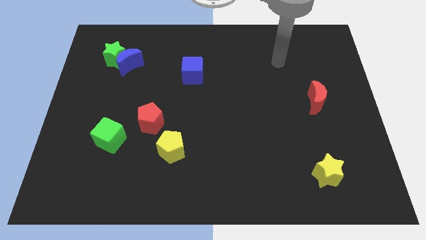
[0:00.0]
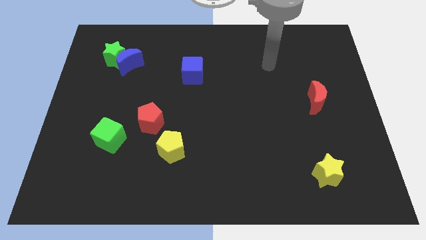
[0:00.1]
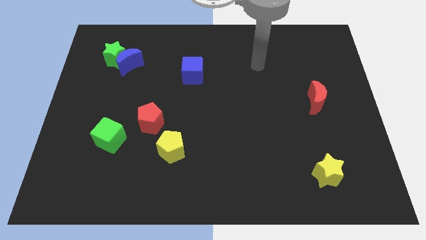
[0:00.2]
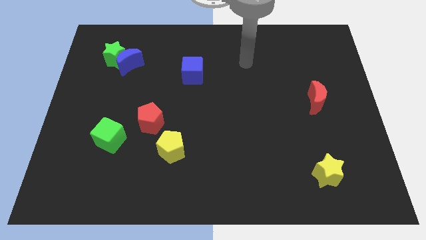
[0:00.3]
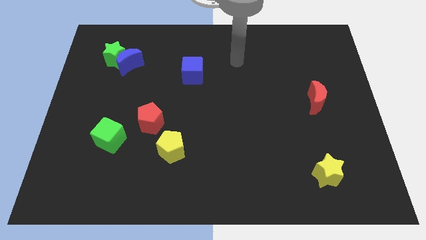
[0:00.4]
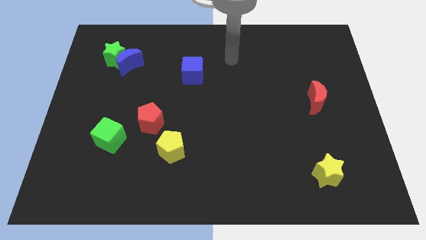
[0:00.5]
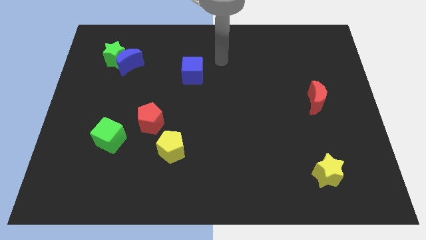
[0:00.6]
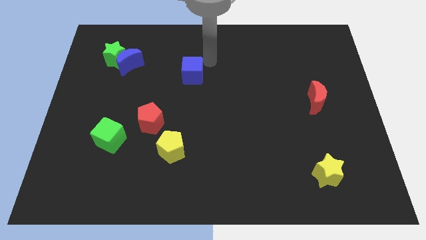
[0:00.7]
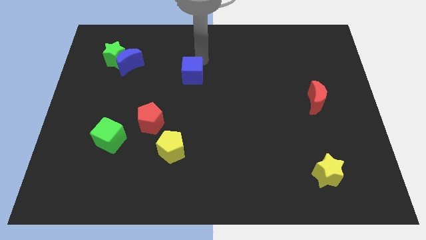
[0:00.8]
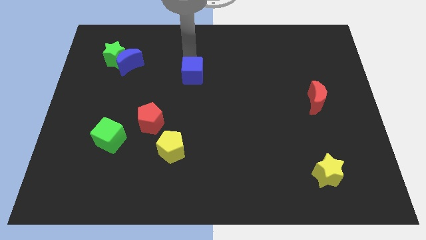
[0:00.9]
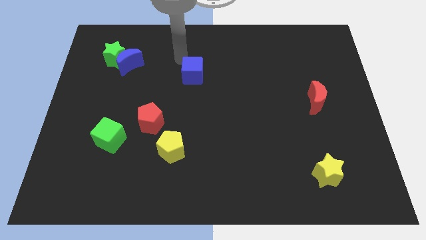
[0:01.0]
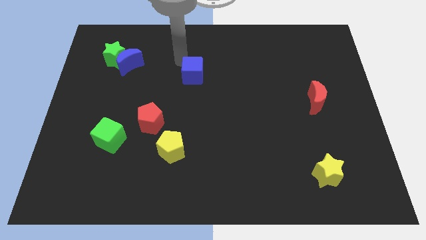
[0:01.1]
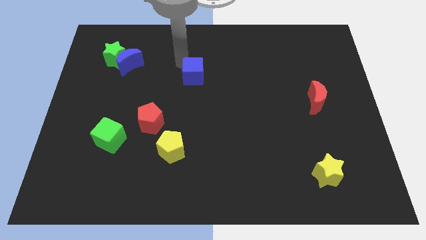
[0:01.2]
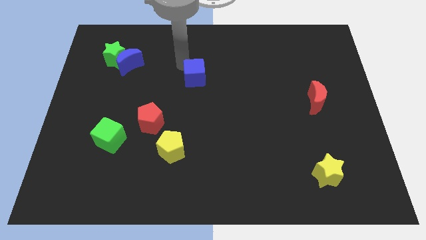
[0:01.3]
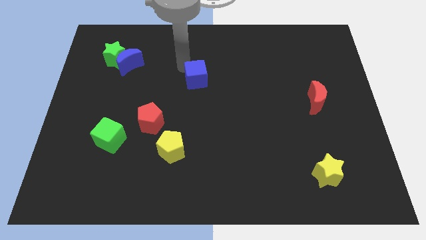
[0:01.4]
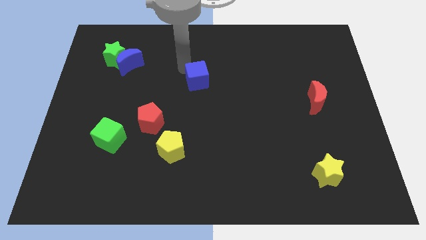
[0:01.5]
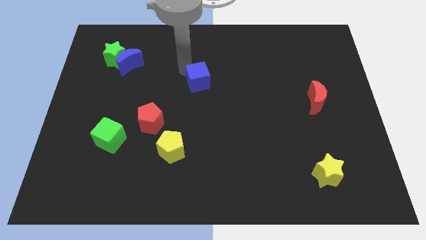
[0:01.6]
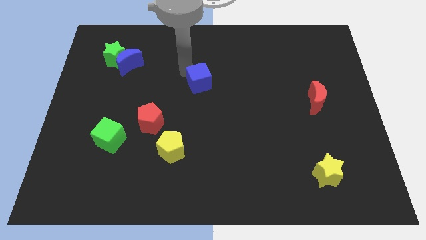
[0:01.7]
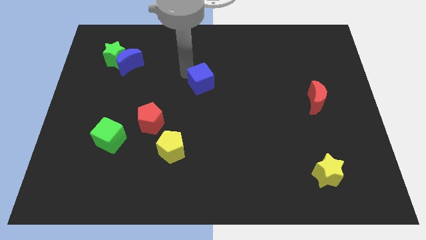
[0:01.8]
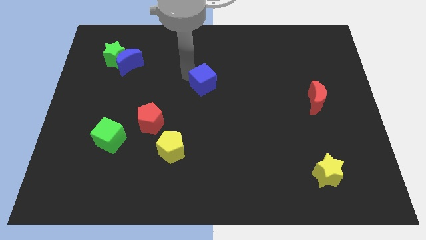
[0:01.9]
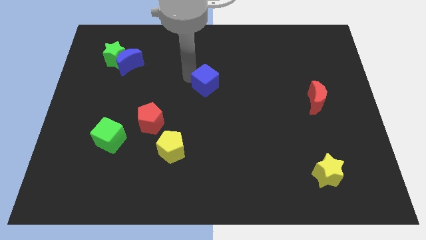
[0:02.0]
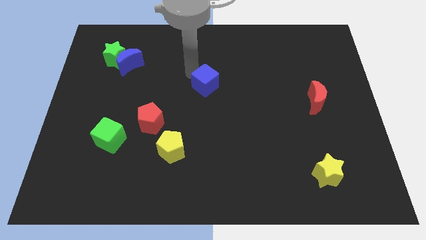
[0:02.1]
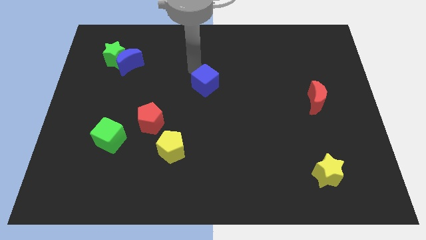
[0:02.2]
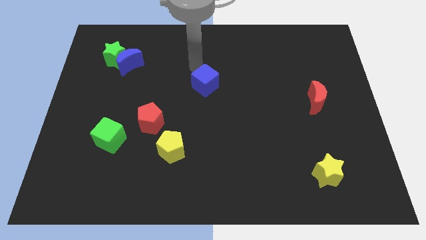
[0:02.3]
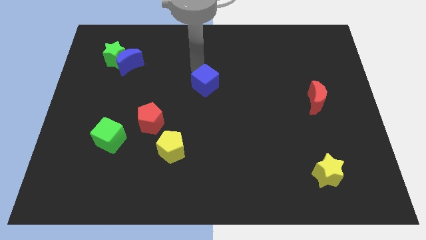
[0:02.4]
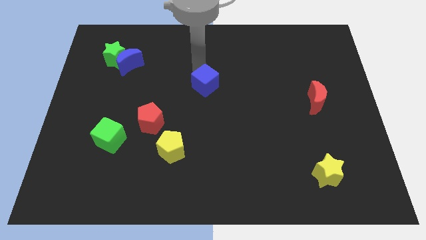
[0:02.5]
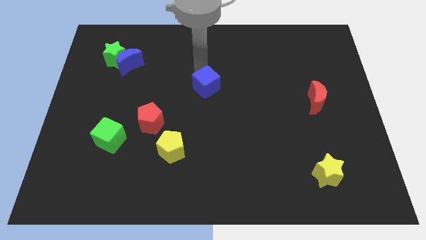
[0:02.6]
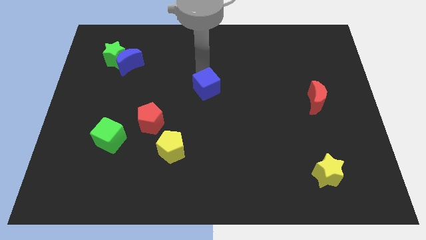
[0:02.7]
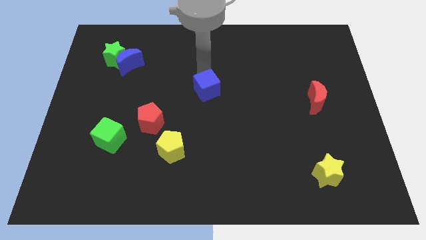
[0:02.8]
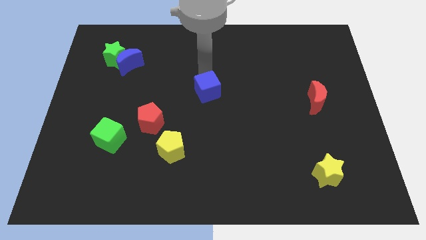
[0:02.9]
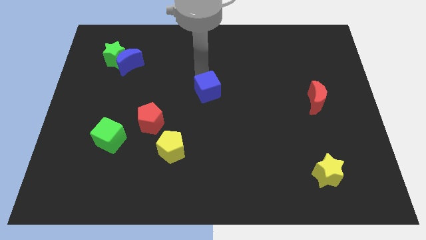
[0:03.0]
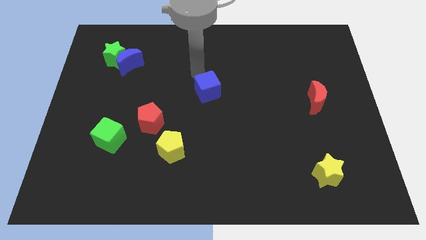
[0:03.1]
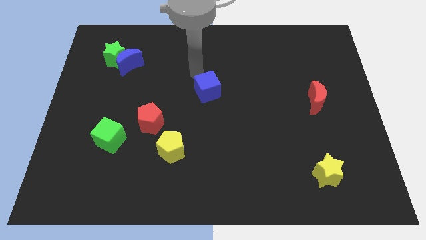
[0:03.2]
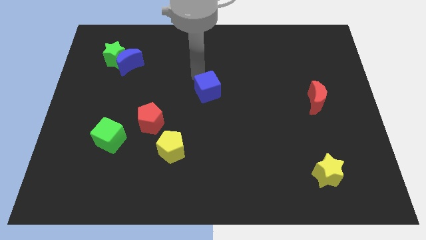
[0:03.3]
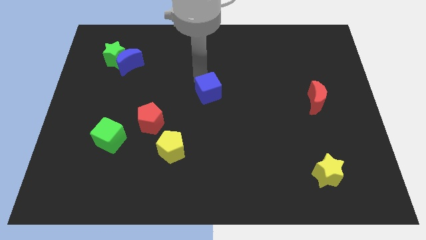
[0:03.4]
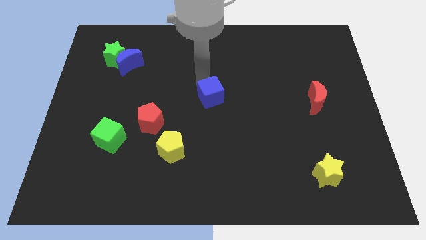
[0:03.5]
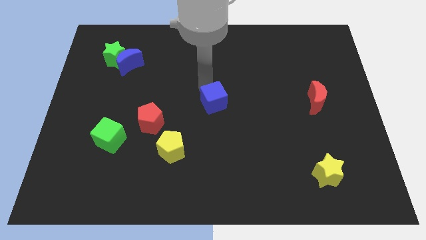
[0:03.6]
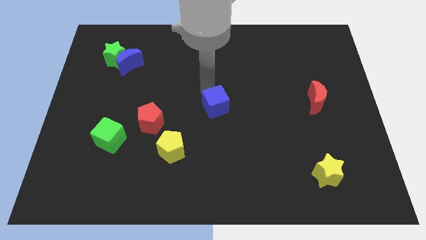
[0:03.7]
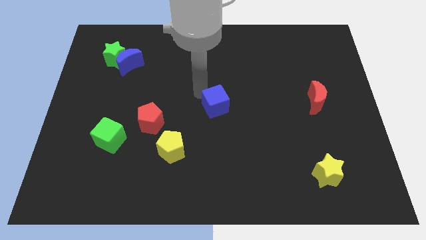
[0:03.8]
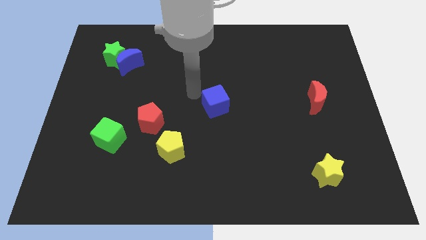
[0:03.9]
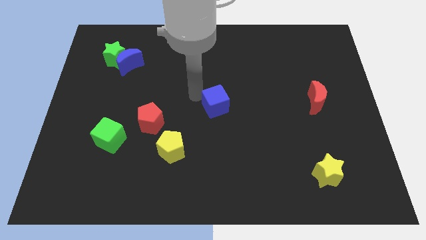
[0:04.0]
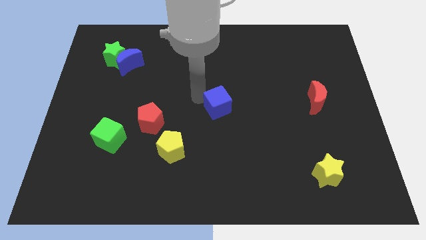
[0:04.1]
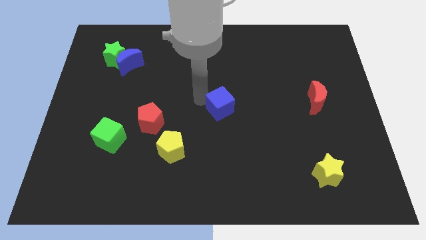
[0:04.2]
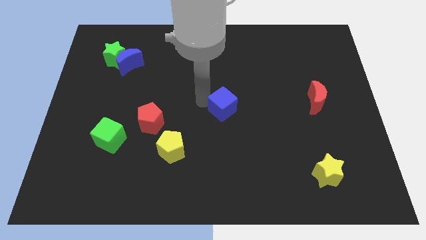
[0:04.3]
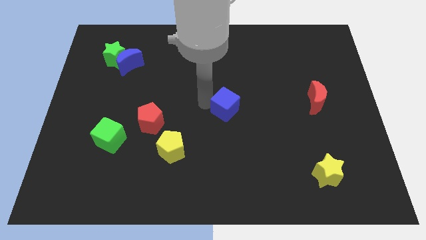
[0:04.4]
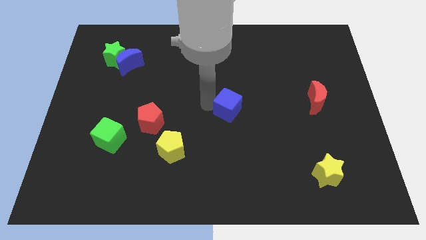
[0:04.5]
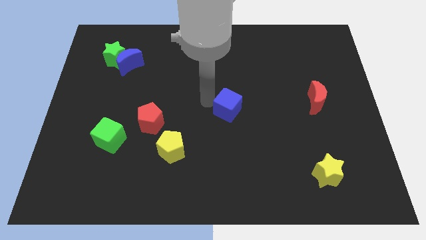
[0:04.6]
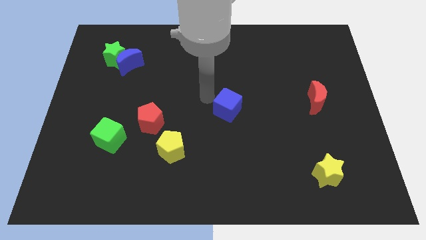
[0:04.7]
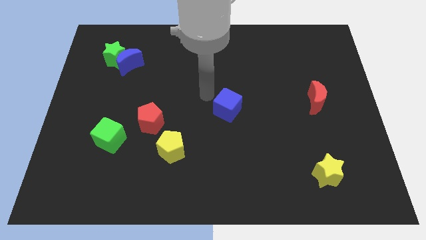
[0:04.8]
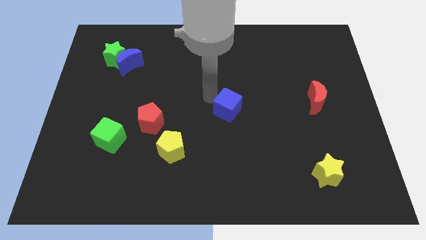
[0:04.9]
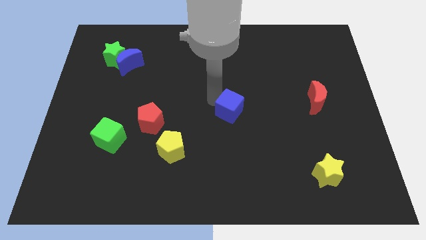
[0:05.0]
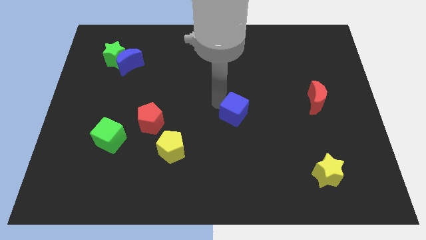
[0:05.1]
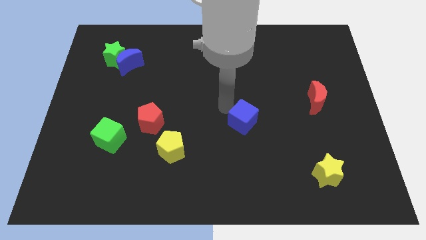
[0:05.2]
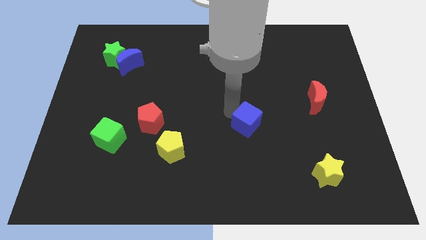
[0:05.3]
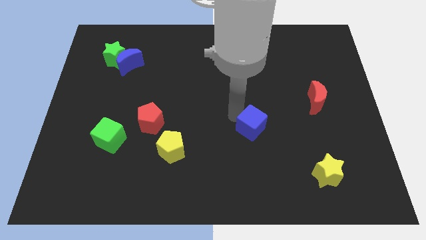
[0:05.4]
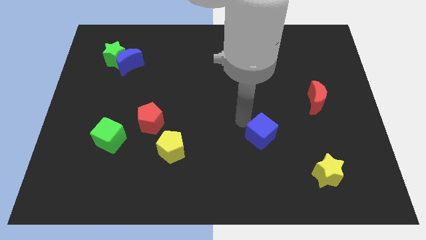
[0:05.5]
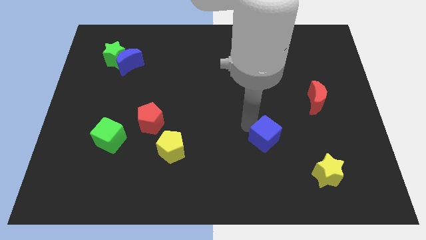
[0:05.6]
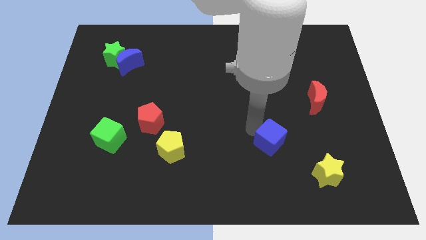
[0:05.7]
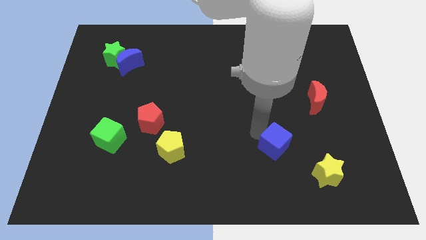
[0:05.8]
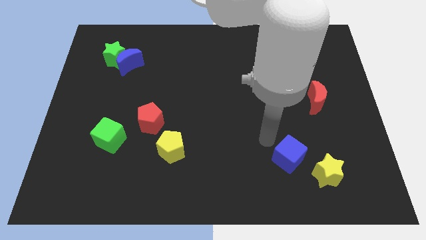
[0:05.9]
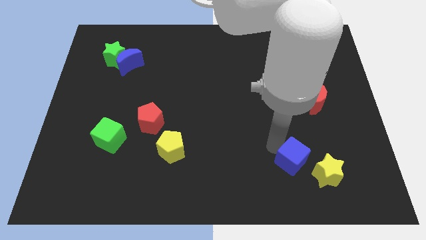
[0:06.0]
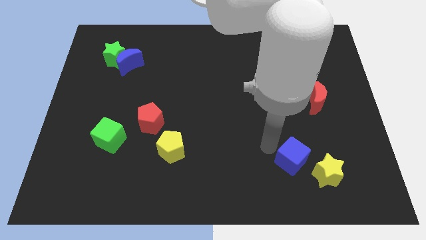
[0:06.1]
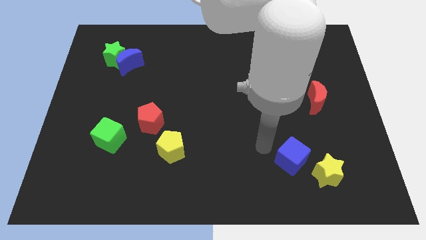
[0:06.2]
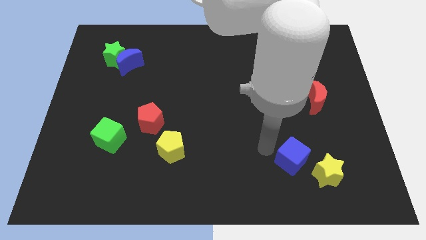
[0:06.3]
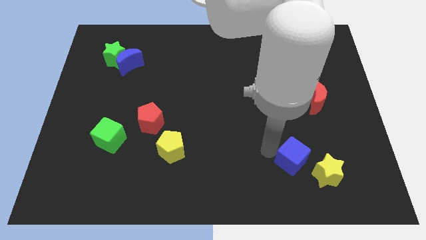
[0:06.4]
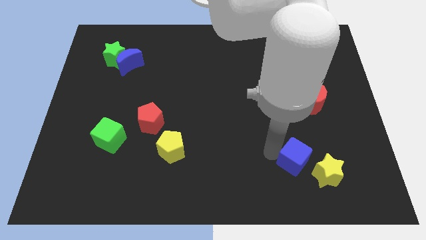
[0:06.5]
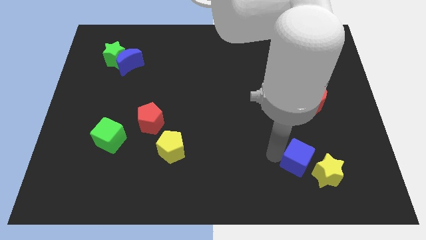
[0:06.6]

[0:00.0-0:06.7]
put the blue cube next to the yellow star
